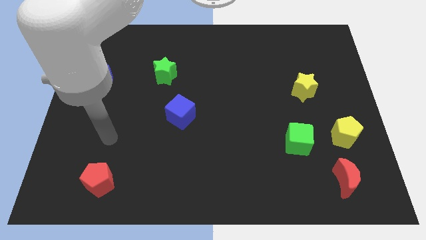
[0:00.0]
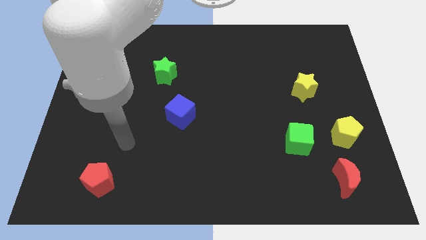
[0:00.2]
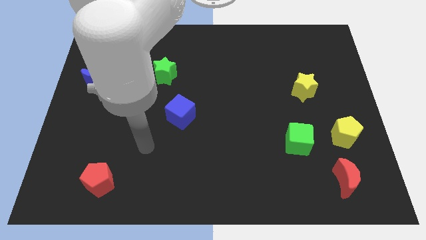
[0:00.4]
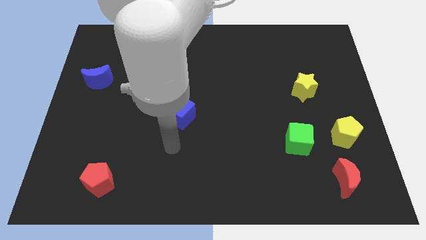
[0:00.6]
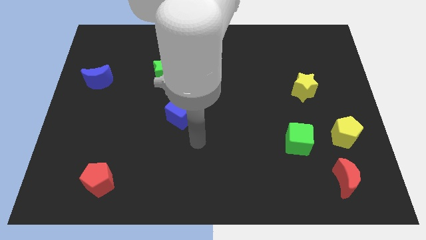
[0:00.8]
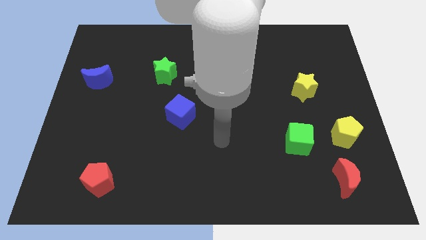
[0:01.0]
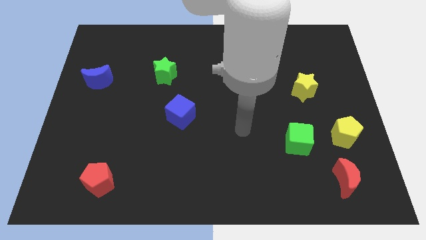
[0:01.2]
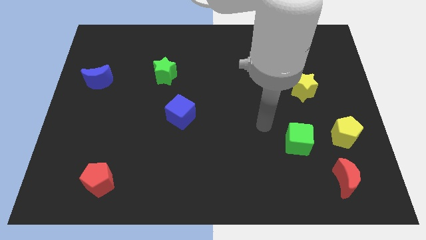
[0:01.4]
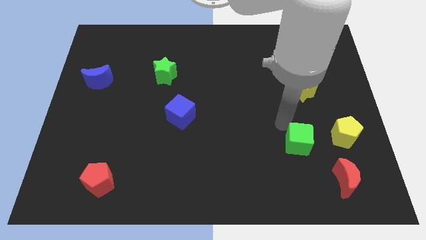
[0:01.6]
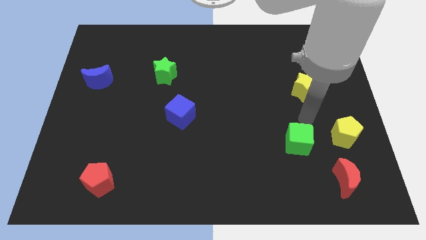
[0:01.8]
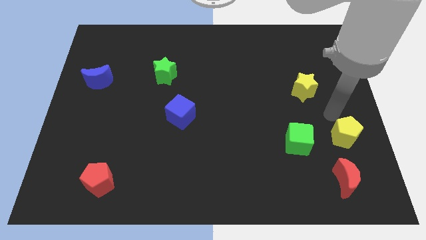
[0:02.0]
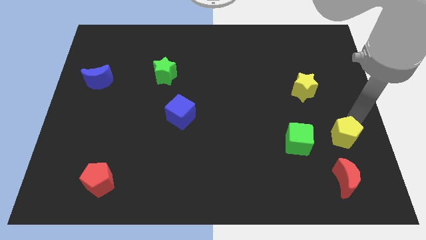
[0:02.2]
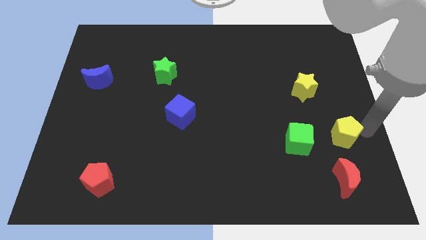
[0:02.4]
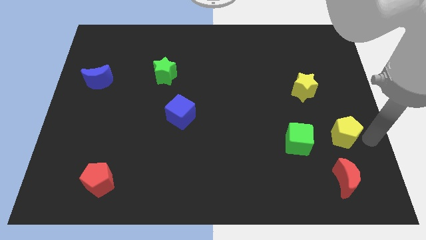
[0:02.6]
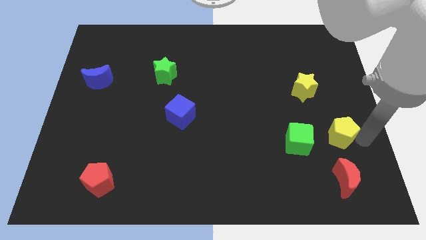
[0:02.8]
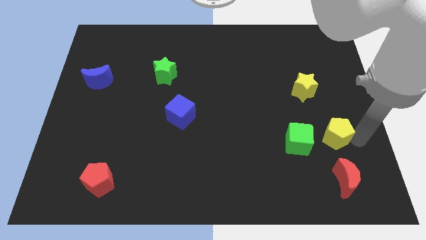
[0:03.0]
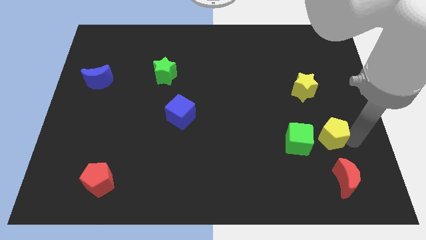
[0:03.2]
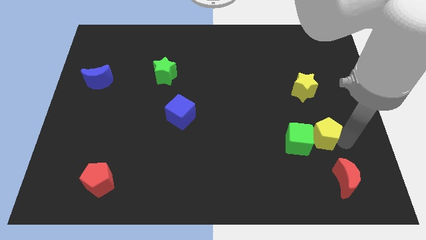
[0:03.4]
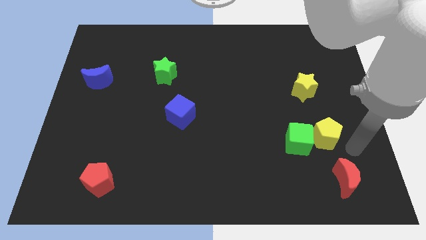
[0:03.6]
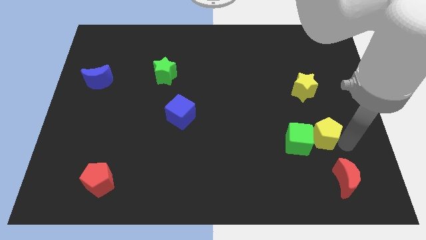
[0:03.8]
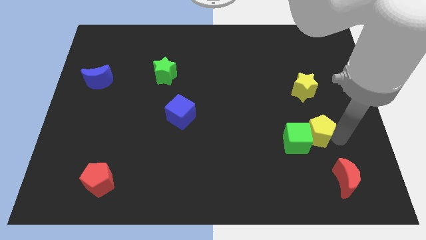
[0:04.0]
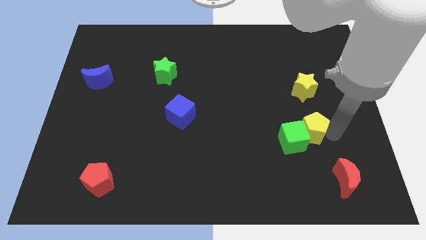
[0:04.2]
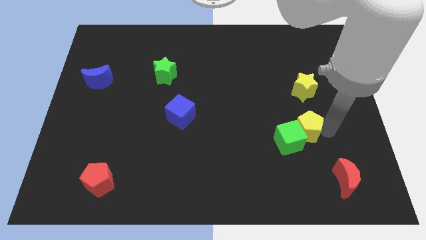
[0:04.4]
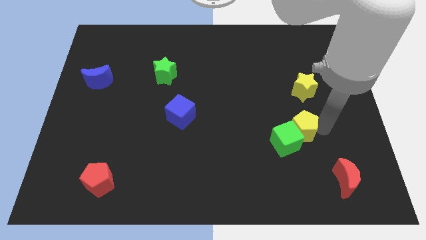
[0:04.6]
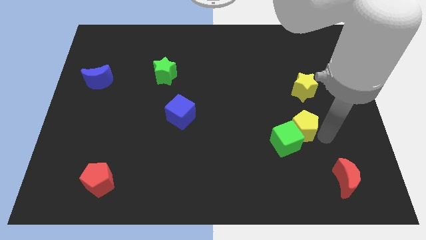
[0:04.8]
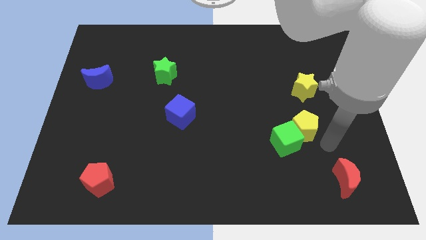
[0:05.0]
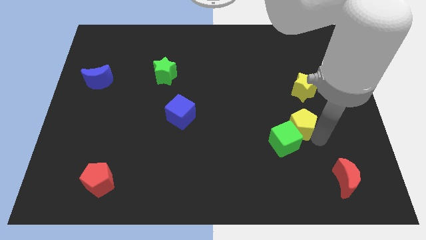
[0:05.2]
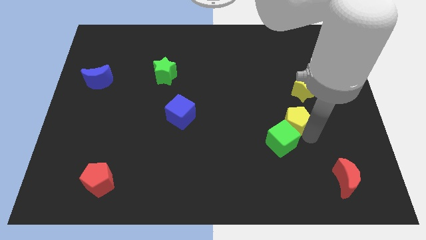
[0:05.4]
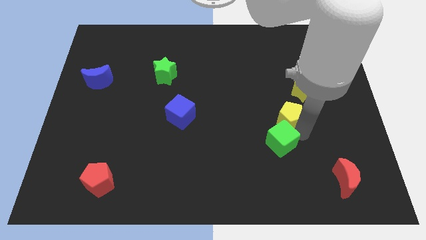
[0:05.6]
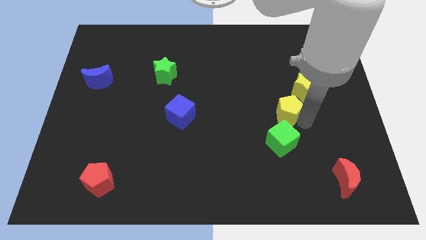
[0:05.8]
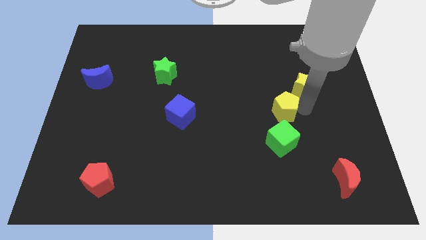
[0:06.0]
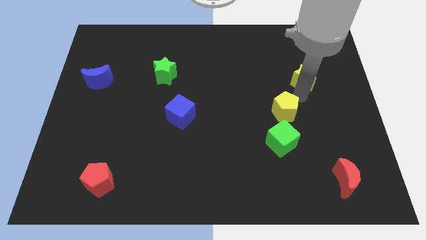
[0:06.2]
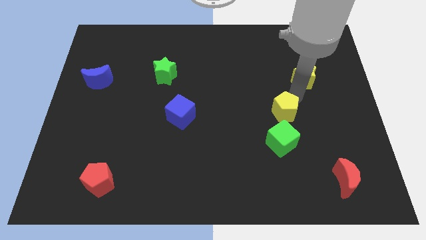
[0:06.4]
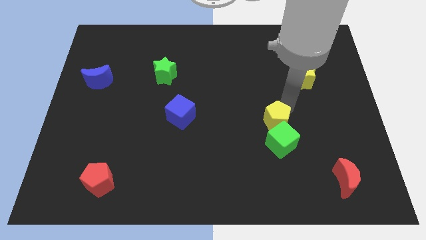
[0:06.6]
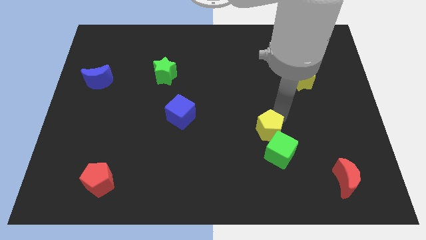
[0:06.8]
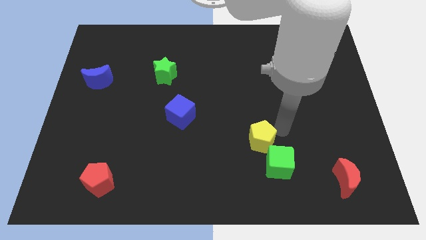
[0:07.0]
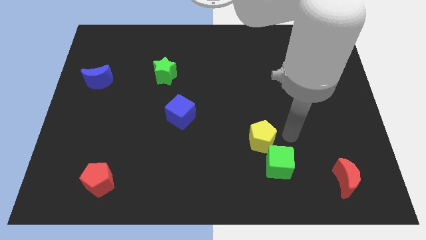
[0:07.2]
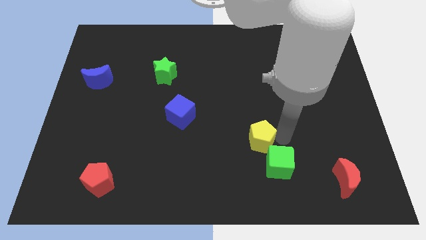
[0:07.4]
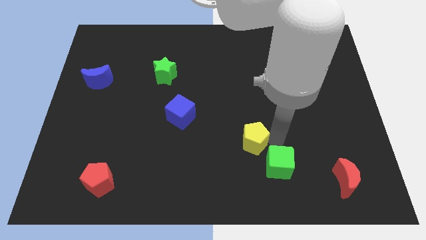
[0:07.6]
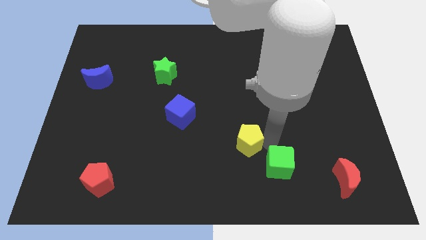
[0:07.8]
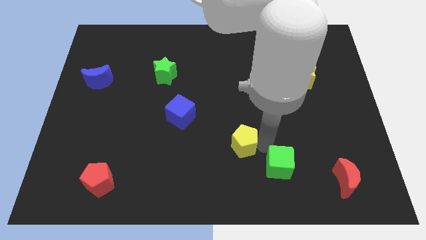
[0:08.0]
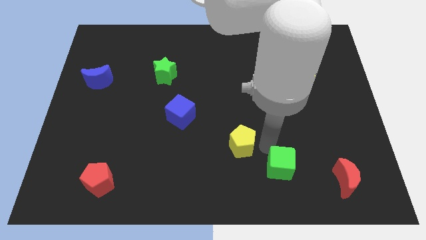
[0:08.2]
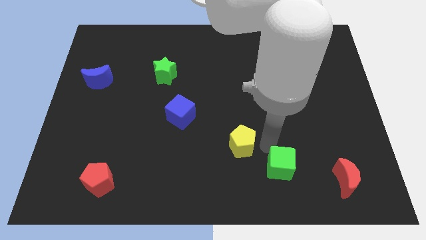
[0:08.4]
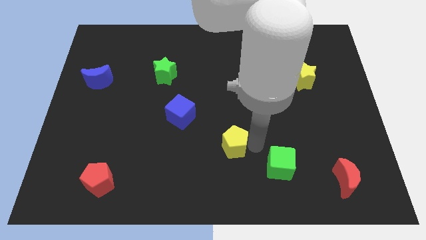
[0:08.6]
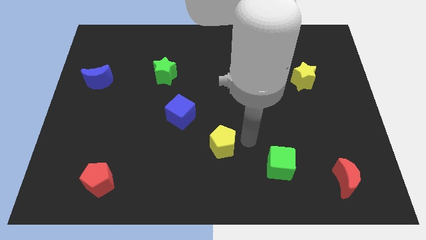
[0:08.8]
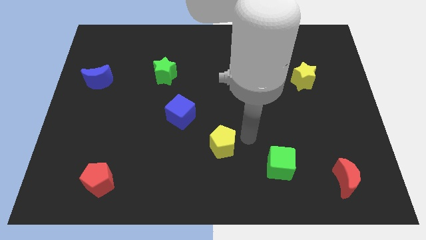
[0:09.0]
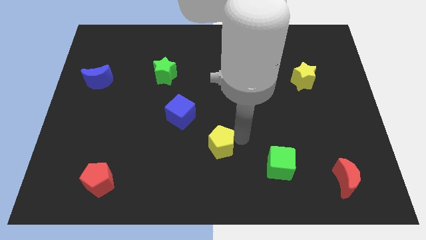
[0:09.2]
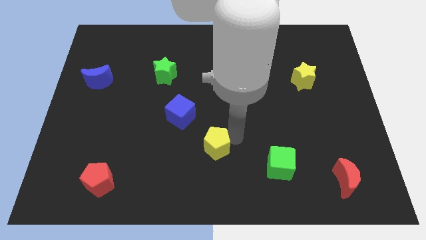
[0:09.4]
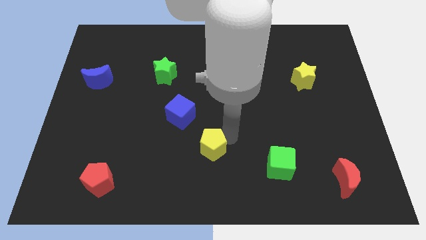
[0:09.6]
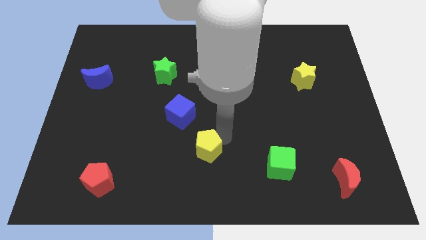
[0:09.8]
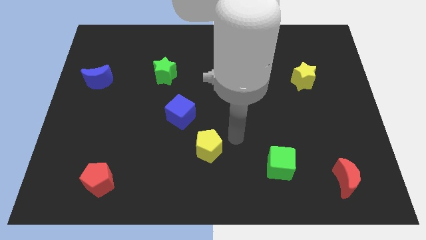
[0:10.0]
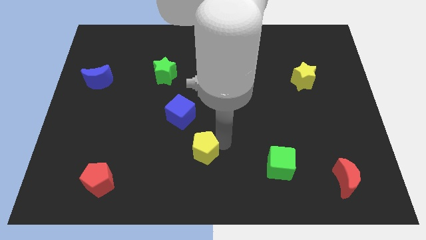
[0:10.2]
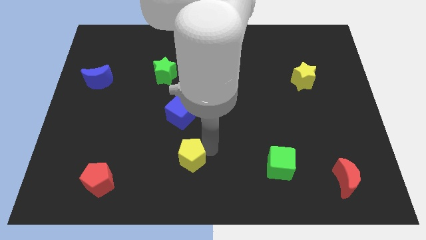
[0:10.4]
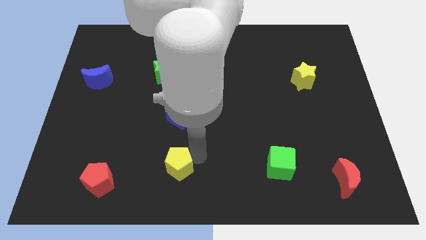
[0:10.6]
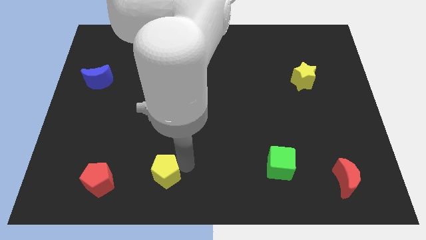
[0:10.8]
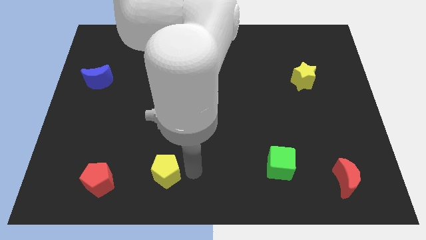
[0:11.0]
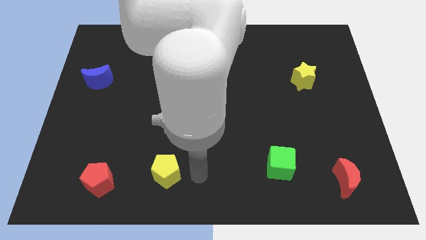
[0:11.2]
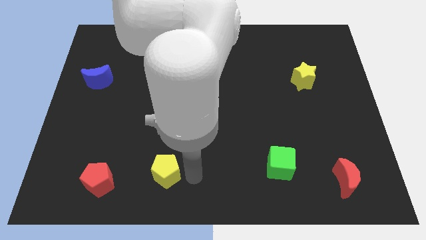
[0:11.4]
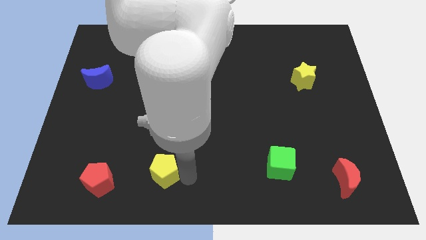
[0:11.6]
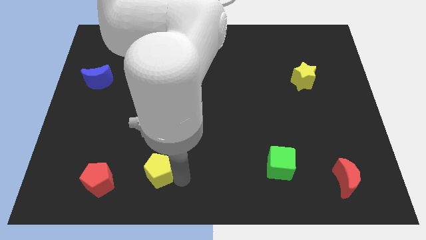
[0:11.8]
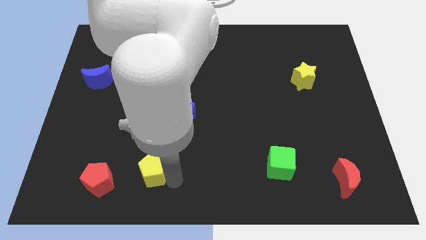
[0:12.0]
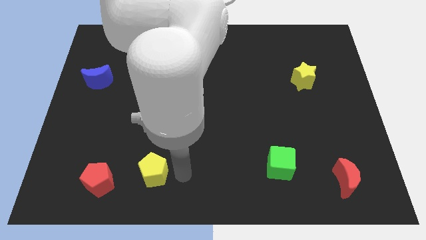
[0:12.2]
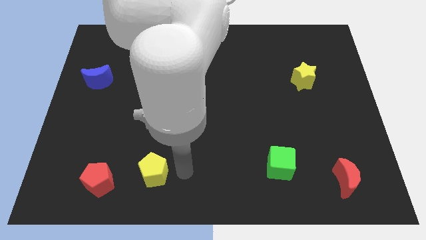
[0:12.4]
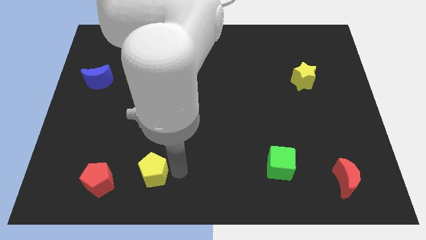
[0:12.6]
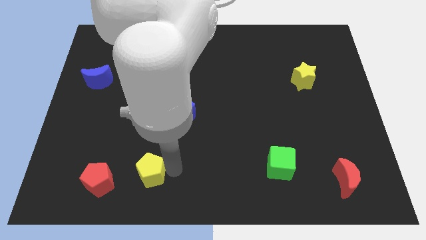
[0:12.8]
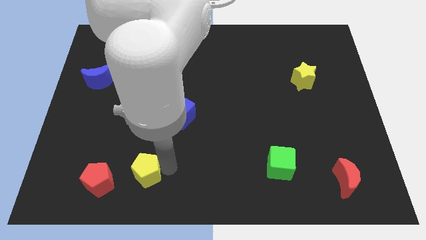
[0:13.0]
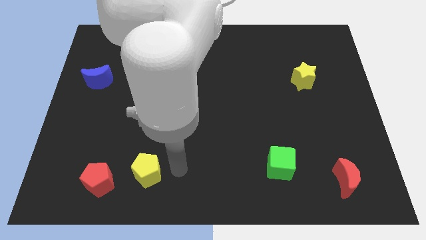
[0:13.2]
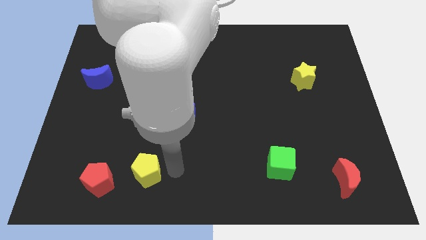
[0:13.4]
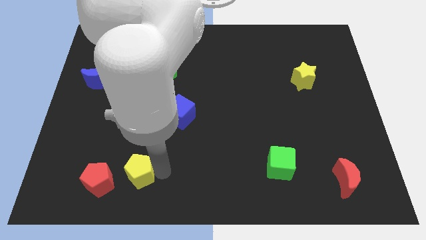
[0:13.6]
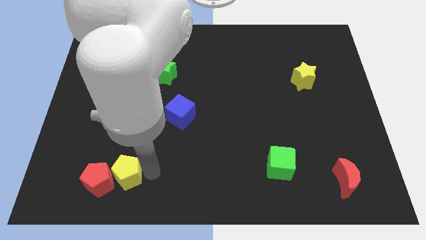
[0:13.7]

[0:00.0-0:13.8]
move the yellow pentagon close to the red pentagon

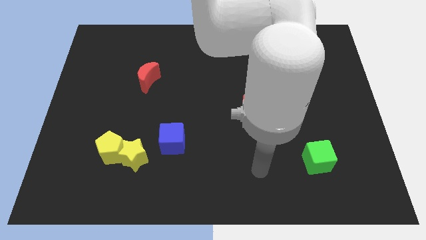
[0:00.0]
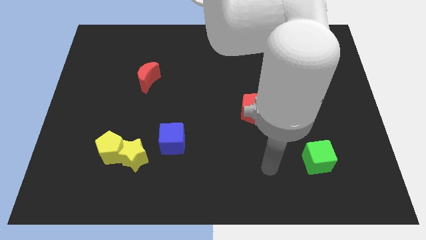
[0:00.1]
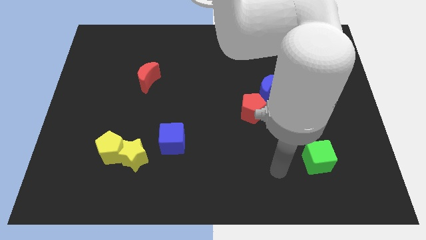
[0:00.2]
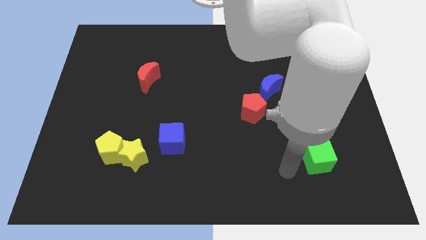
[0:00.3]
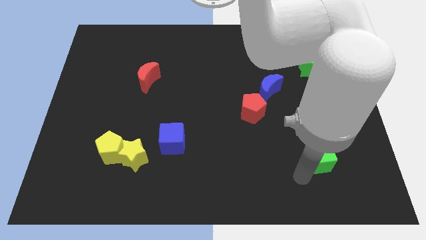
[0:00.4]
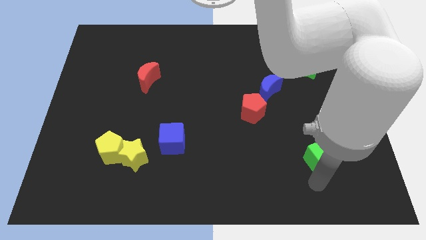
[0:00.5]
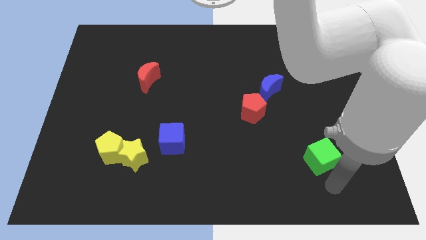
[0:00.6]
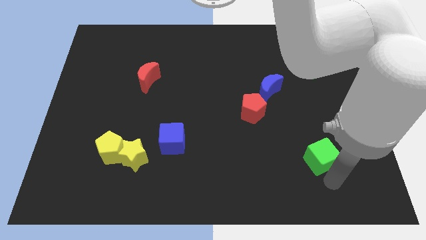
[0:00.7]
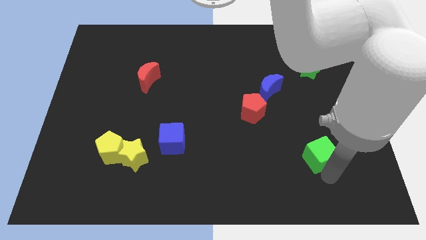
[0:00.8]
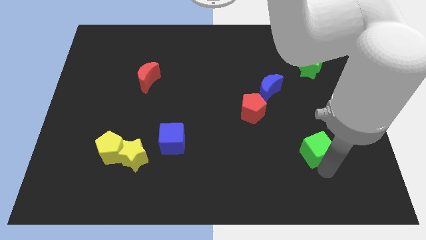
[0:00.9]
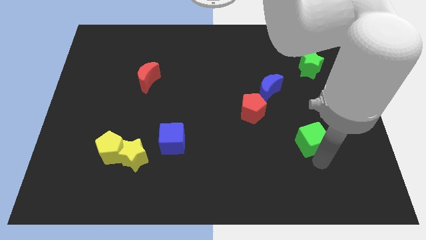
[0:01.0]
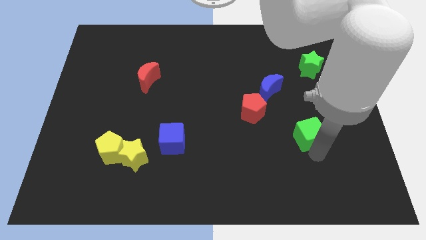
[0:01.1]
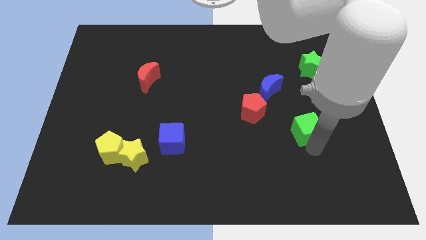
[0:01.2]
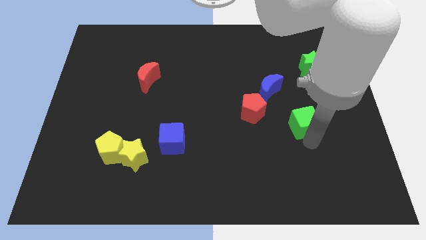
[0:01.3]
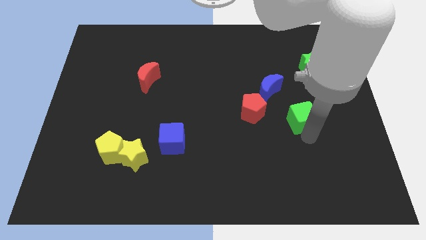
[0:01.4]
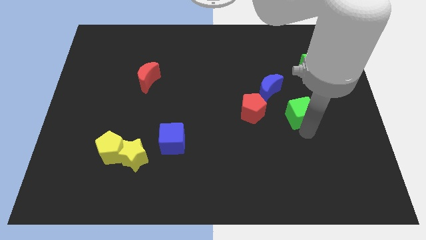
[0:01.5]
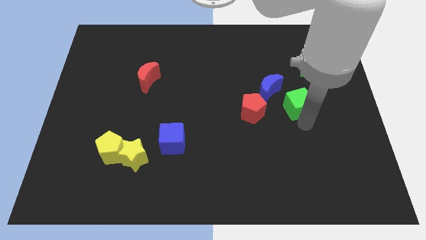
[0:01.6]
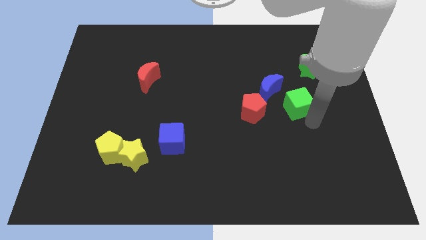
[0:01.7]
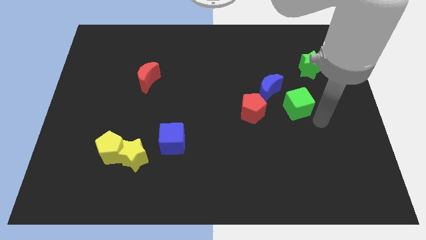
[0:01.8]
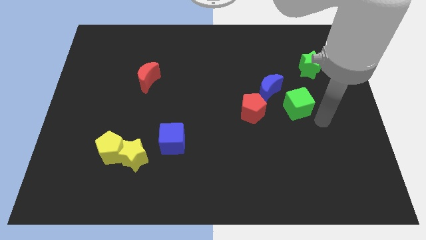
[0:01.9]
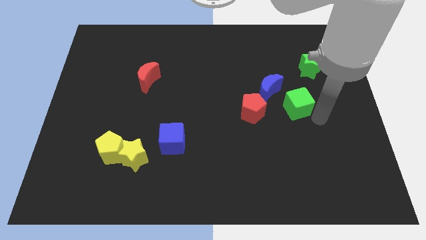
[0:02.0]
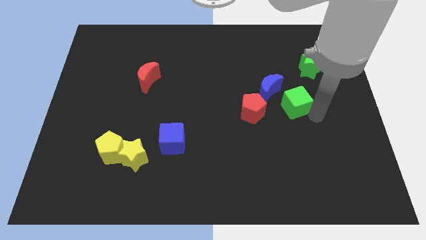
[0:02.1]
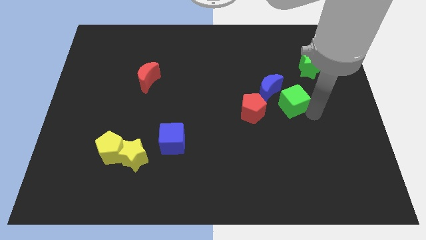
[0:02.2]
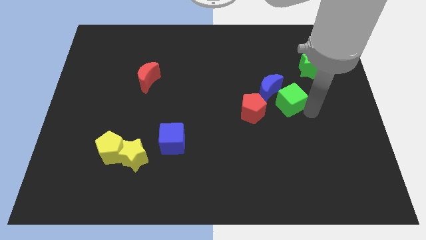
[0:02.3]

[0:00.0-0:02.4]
put the green cube towards the blue moon
